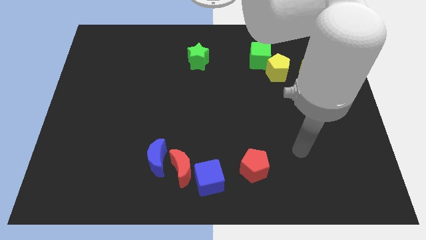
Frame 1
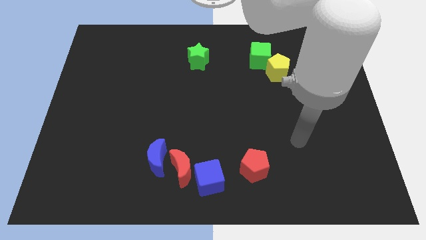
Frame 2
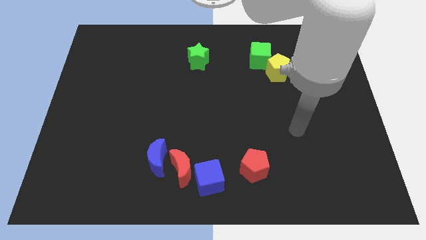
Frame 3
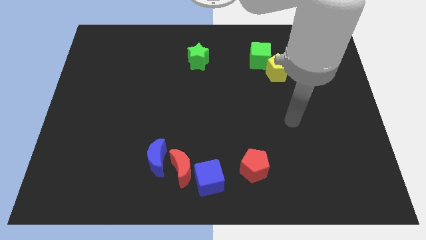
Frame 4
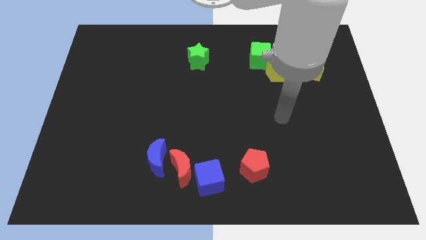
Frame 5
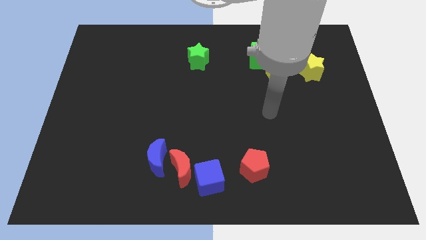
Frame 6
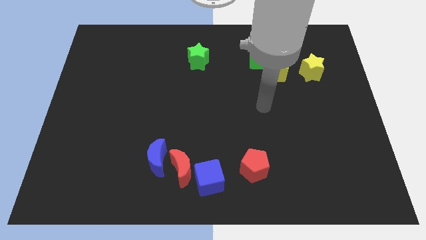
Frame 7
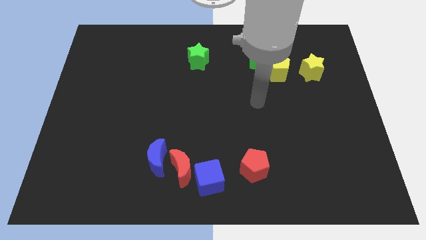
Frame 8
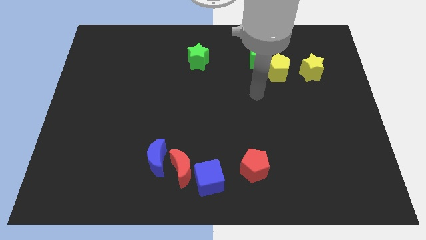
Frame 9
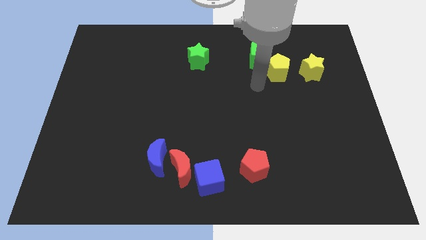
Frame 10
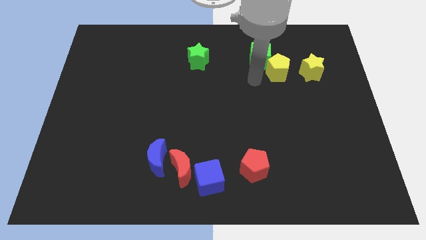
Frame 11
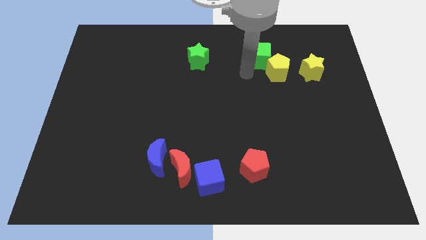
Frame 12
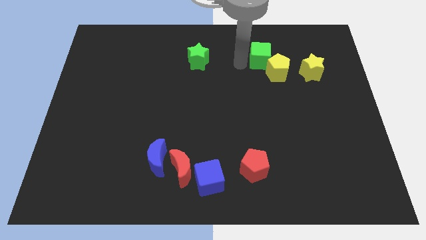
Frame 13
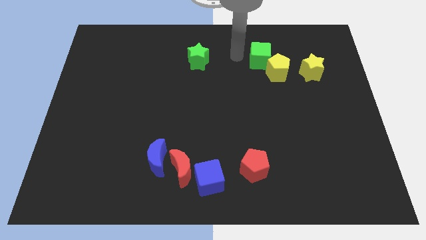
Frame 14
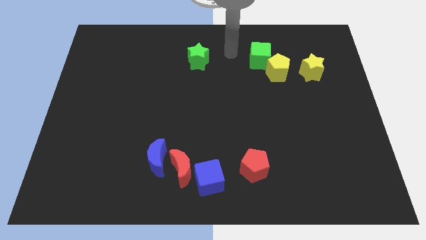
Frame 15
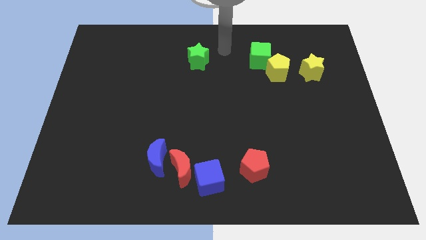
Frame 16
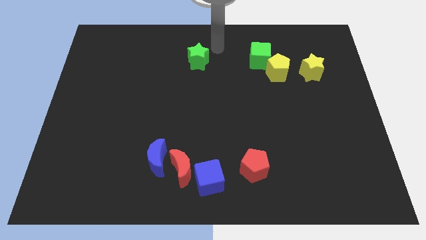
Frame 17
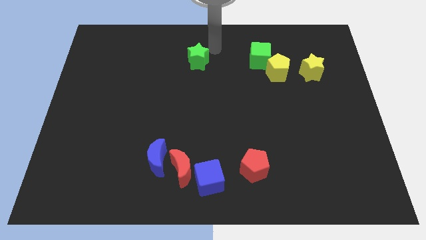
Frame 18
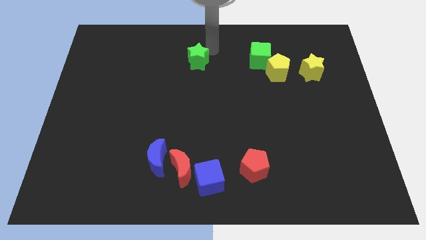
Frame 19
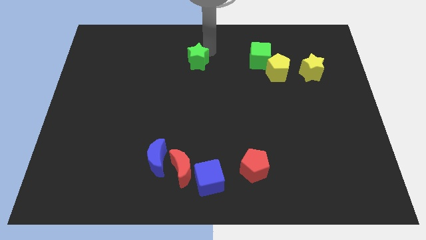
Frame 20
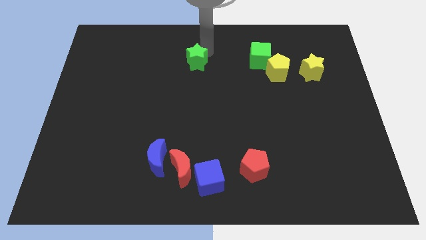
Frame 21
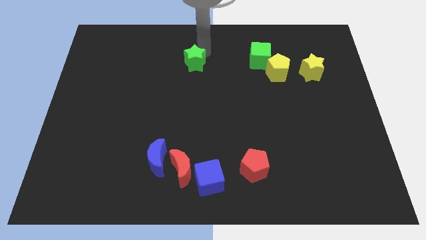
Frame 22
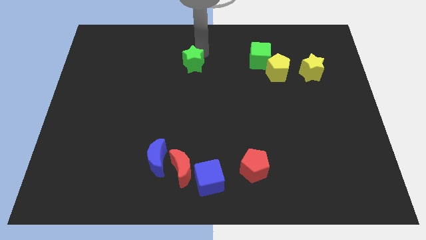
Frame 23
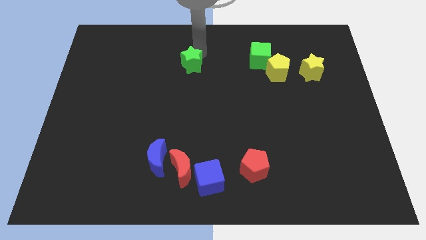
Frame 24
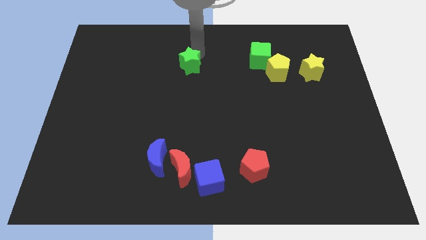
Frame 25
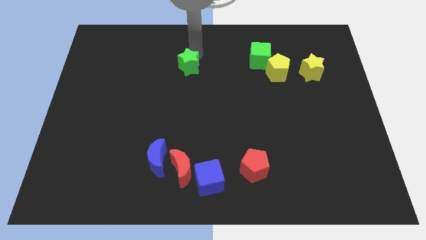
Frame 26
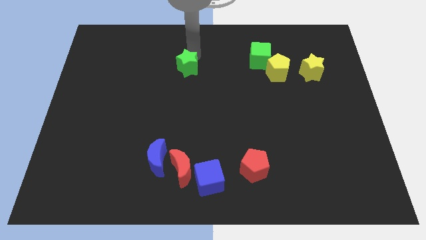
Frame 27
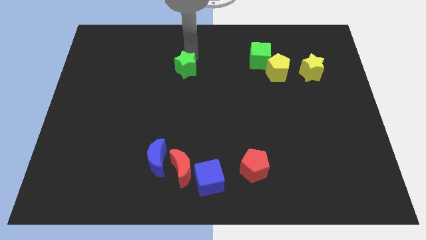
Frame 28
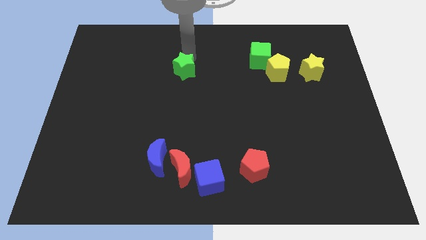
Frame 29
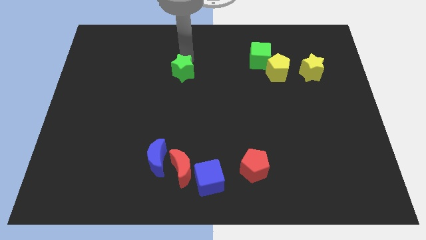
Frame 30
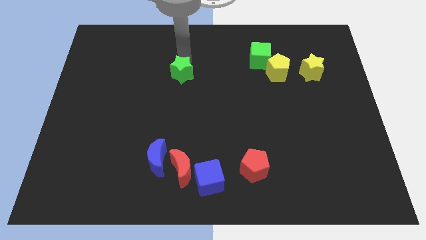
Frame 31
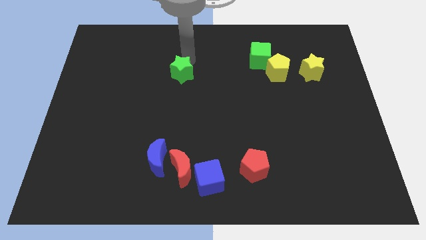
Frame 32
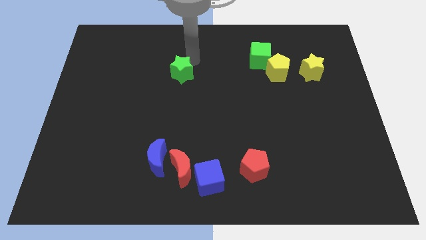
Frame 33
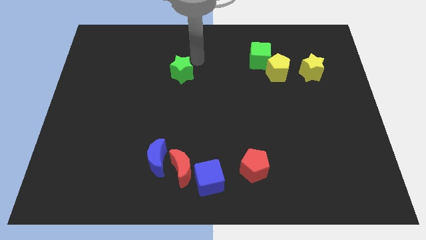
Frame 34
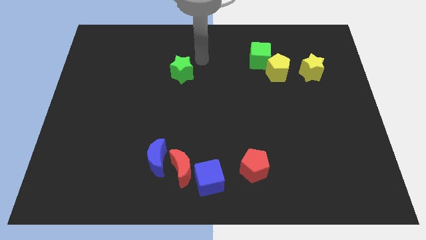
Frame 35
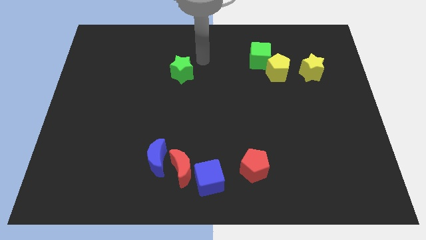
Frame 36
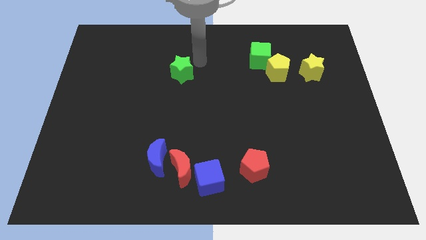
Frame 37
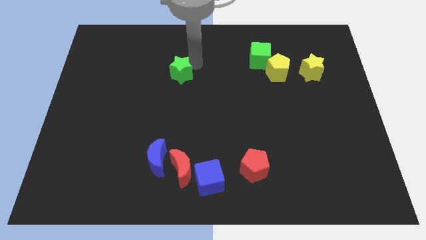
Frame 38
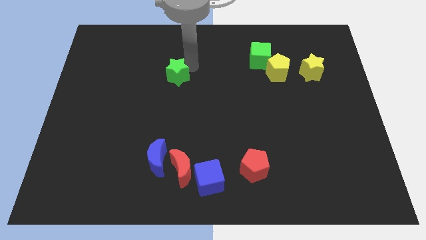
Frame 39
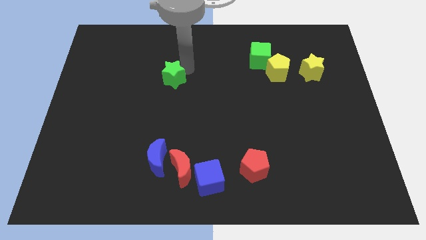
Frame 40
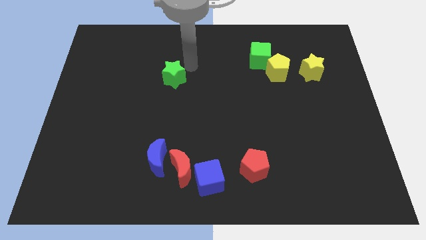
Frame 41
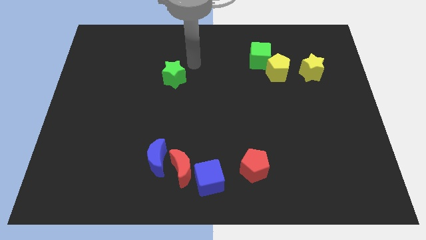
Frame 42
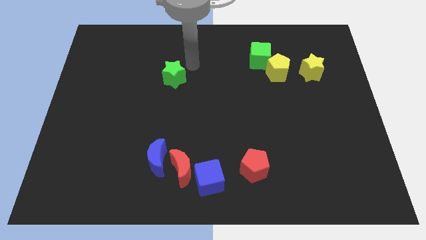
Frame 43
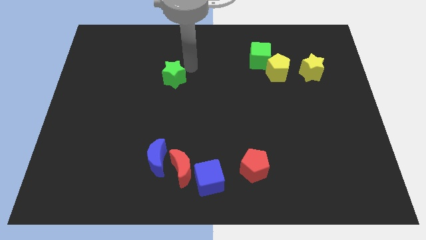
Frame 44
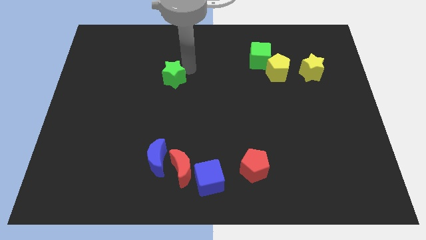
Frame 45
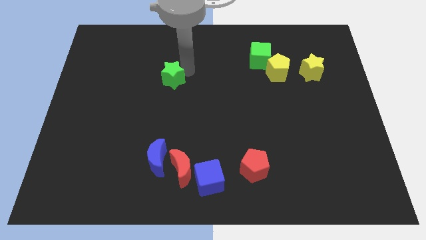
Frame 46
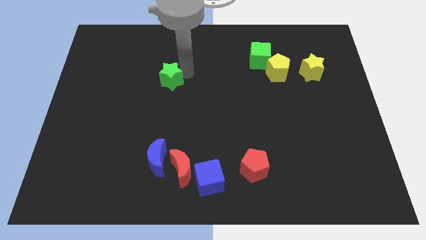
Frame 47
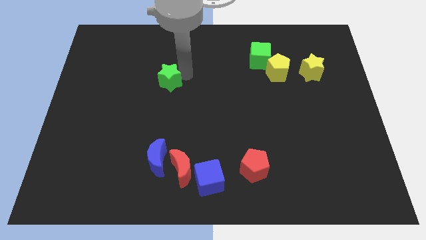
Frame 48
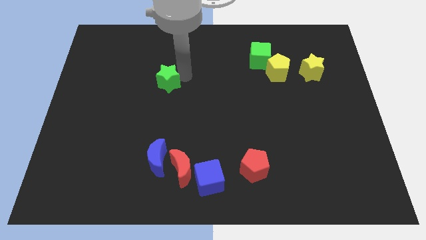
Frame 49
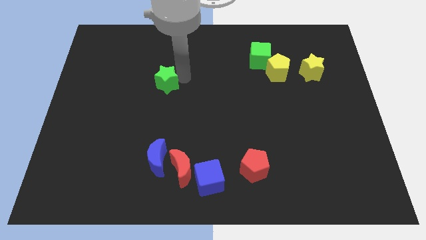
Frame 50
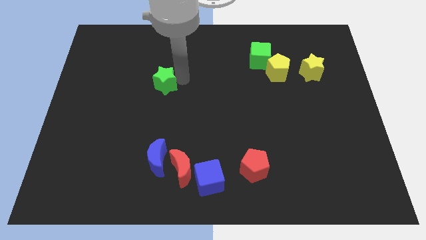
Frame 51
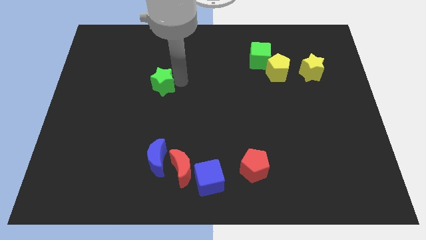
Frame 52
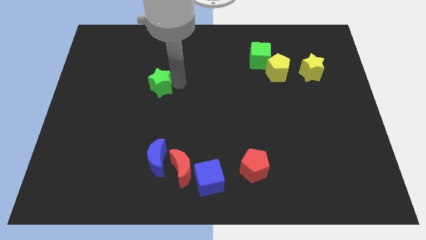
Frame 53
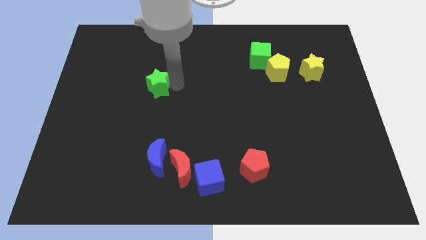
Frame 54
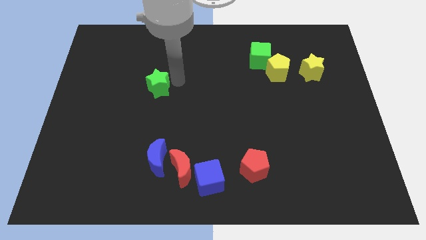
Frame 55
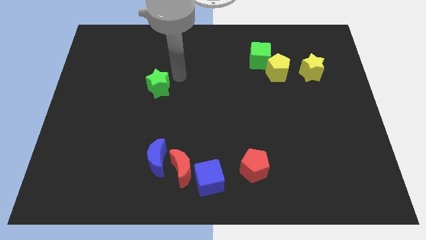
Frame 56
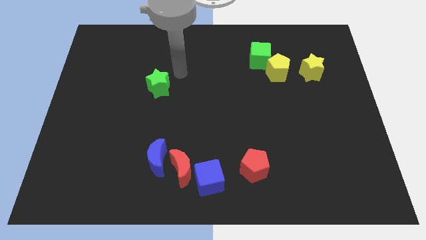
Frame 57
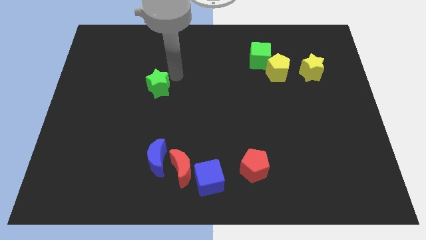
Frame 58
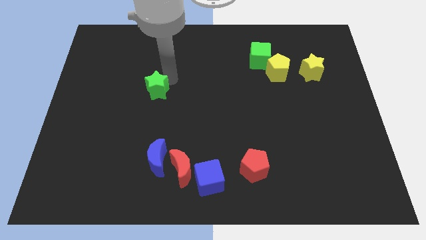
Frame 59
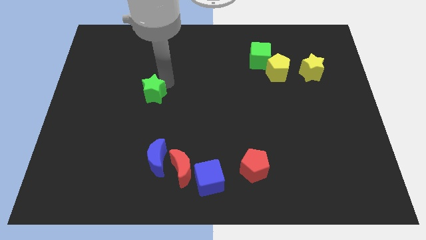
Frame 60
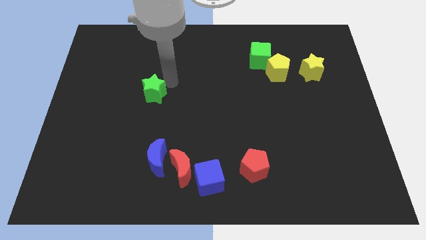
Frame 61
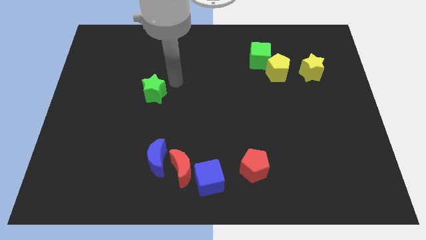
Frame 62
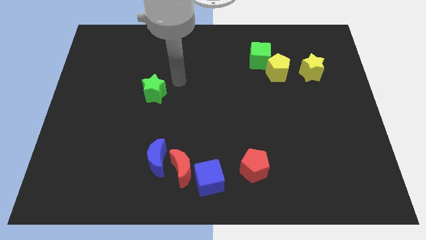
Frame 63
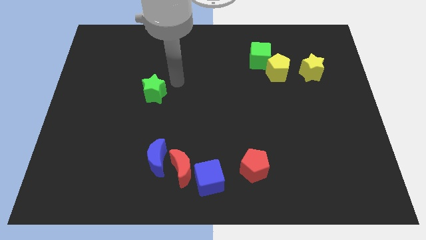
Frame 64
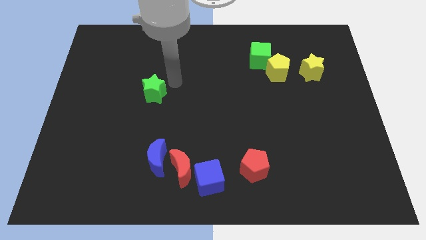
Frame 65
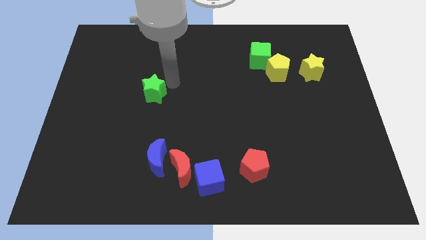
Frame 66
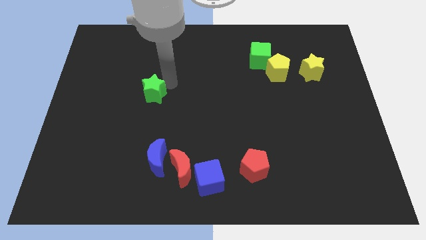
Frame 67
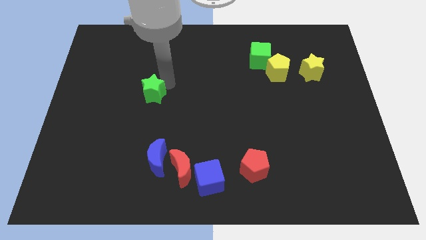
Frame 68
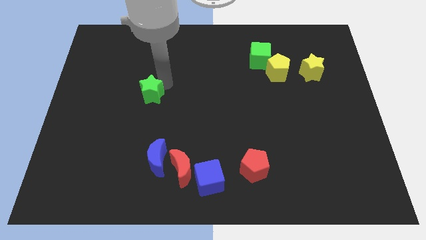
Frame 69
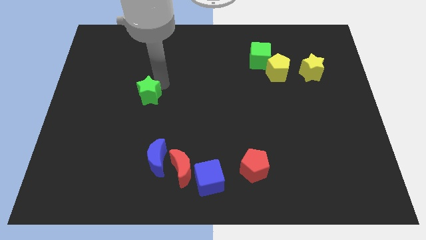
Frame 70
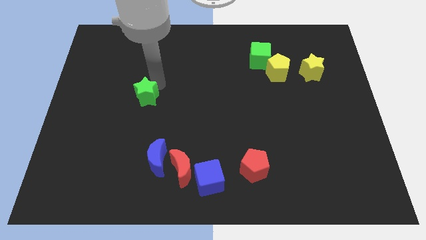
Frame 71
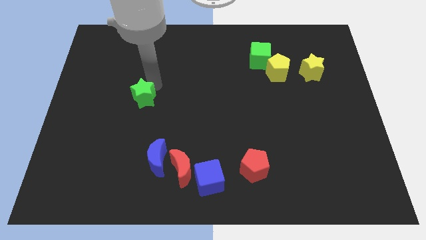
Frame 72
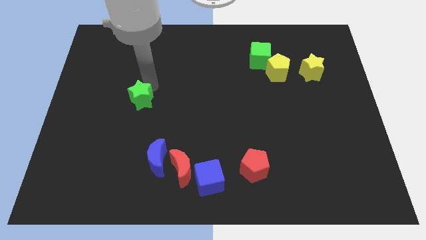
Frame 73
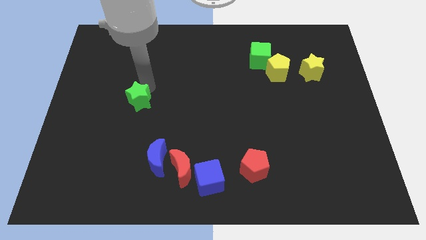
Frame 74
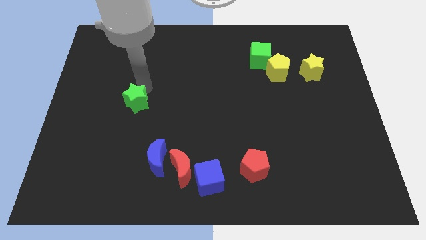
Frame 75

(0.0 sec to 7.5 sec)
slide the green star down and to the left diagonally

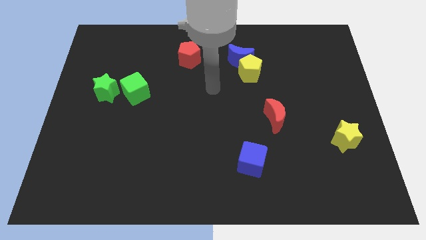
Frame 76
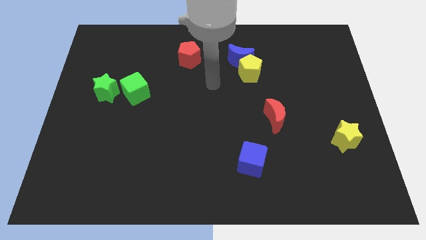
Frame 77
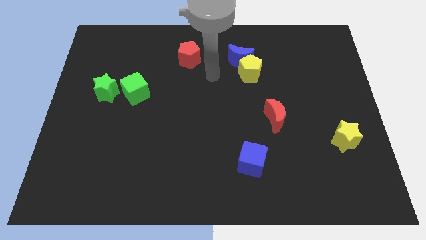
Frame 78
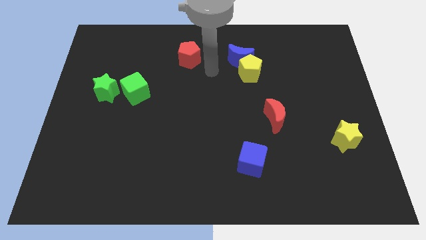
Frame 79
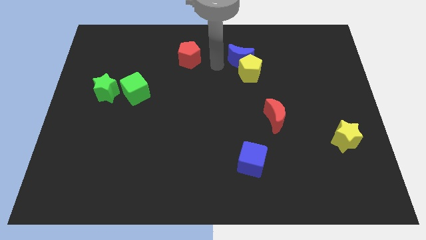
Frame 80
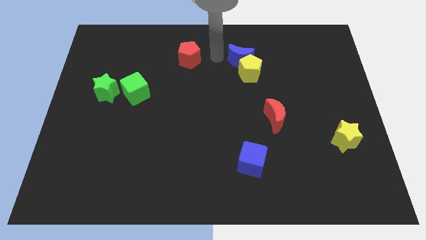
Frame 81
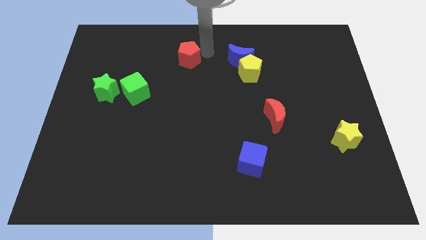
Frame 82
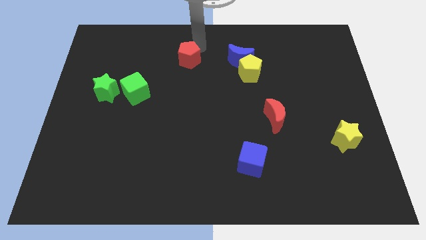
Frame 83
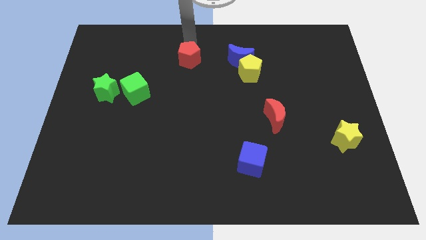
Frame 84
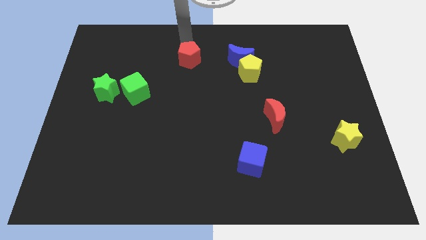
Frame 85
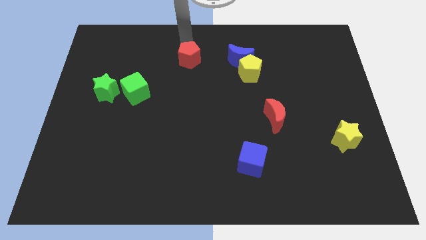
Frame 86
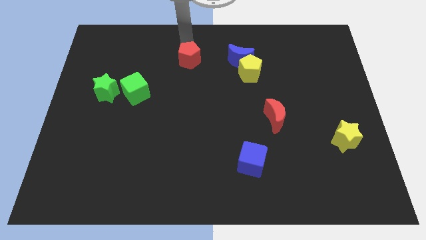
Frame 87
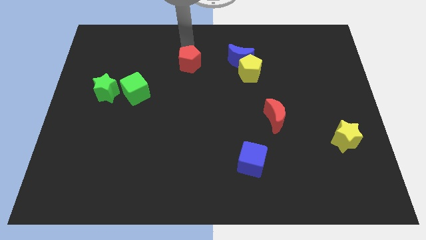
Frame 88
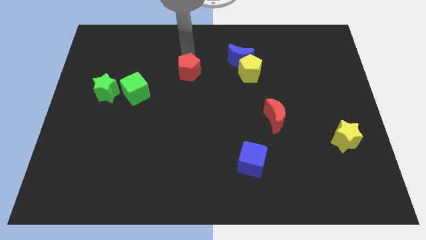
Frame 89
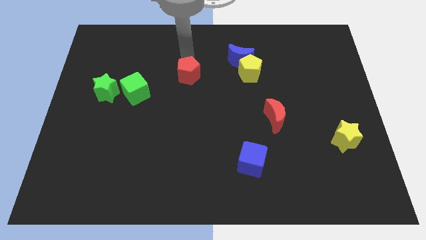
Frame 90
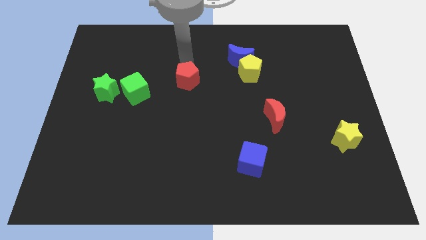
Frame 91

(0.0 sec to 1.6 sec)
move the red pentagon slightly down
